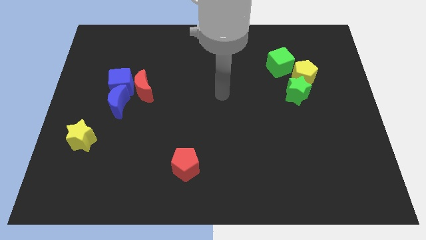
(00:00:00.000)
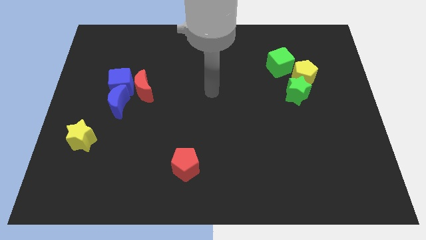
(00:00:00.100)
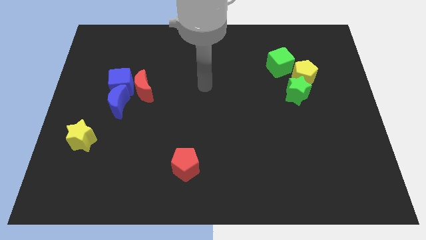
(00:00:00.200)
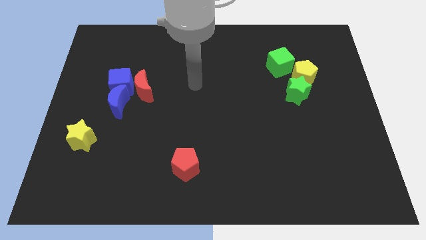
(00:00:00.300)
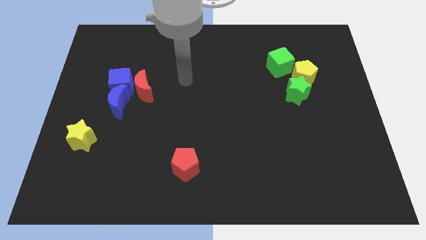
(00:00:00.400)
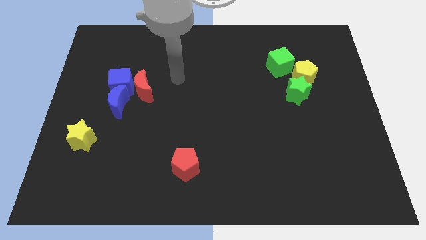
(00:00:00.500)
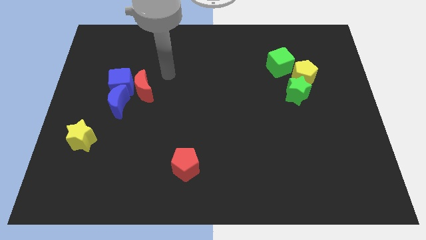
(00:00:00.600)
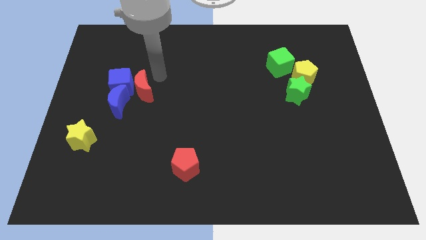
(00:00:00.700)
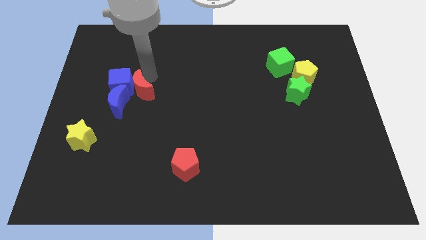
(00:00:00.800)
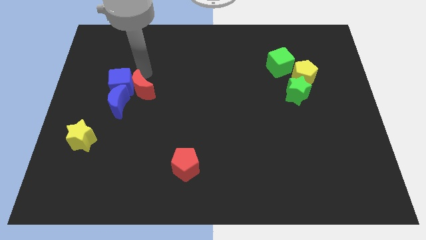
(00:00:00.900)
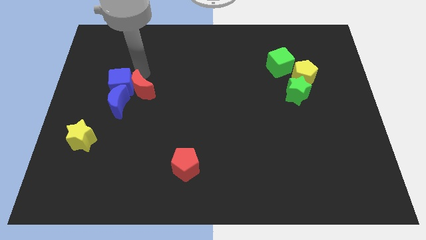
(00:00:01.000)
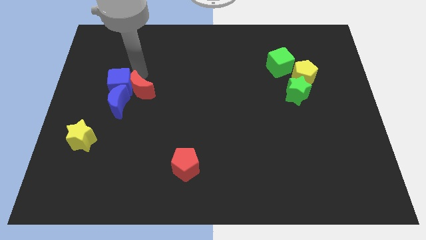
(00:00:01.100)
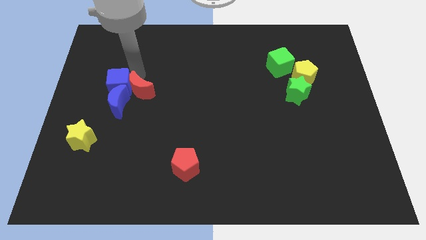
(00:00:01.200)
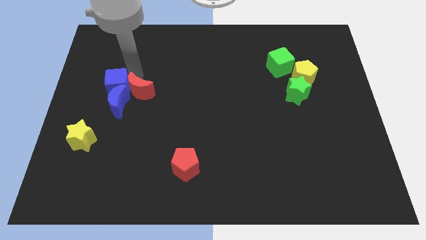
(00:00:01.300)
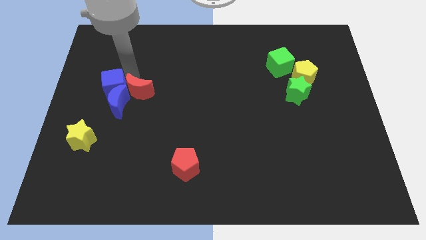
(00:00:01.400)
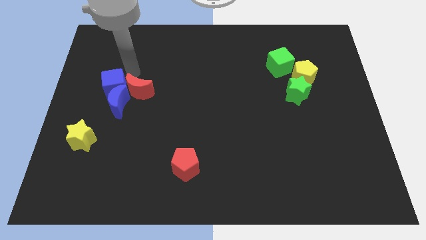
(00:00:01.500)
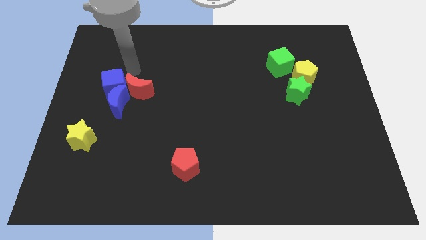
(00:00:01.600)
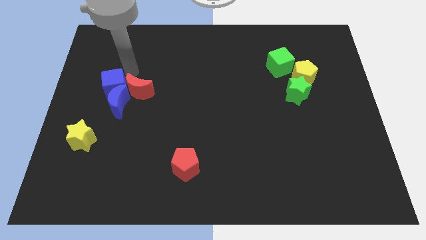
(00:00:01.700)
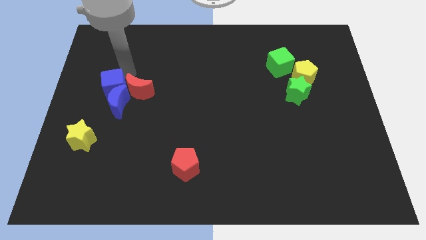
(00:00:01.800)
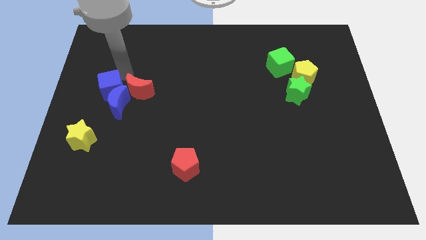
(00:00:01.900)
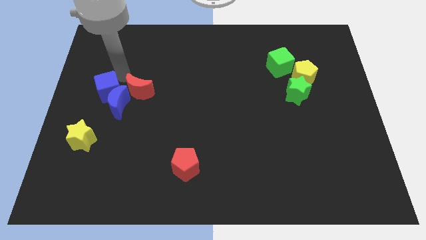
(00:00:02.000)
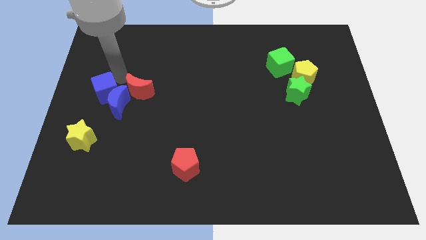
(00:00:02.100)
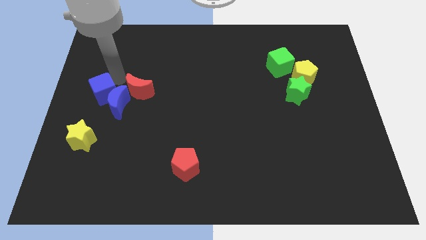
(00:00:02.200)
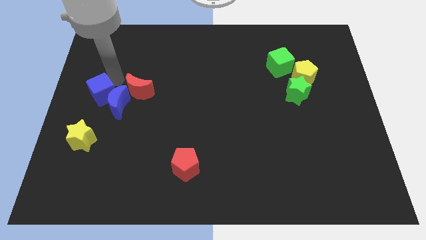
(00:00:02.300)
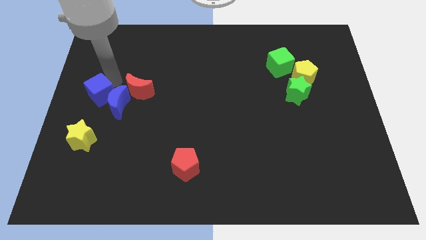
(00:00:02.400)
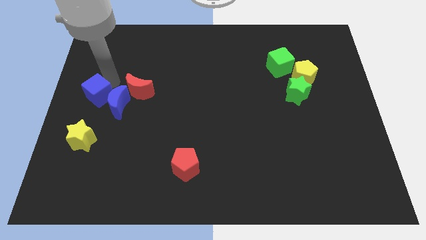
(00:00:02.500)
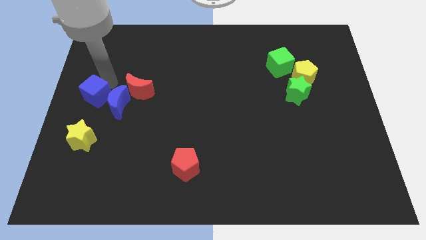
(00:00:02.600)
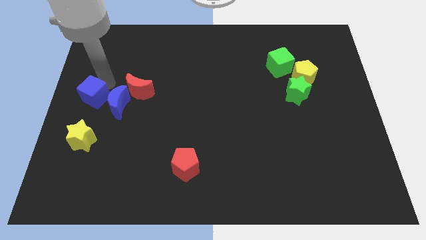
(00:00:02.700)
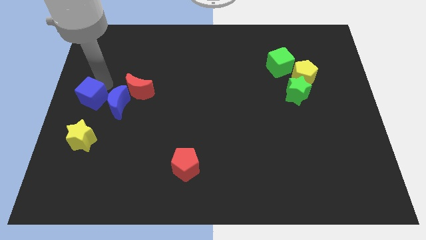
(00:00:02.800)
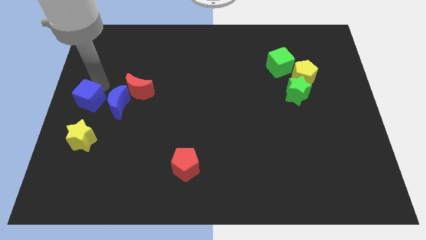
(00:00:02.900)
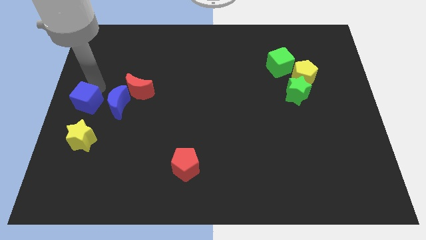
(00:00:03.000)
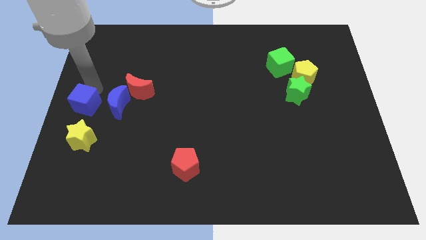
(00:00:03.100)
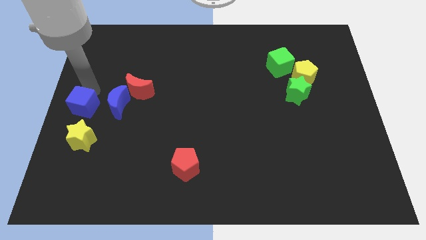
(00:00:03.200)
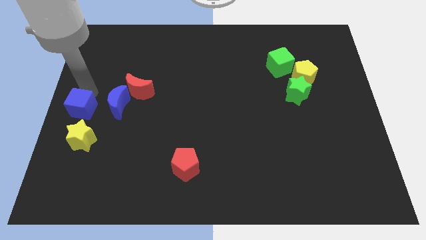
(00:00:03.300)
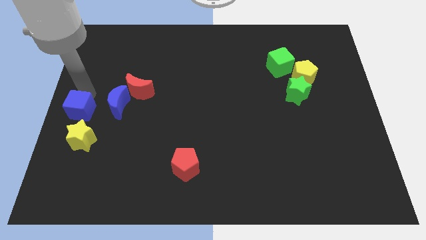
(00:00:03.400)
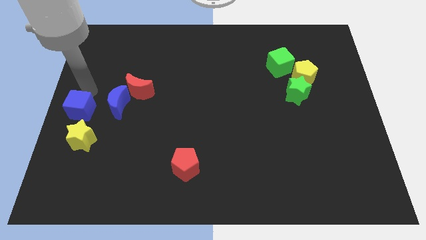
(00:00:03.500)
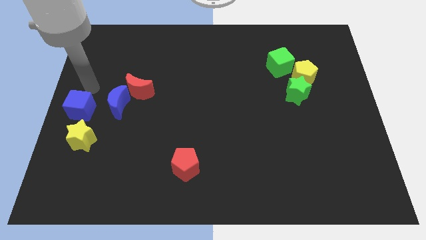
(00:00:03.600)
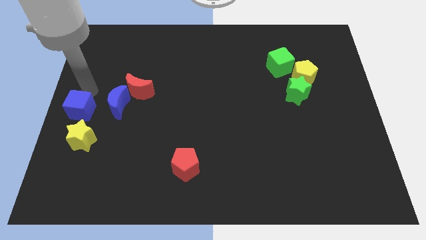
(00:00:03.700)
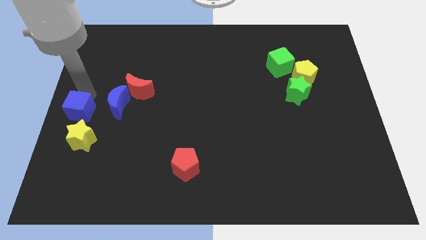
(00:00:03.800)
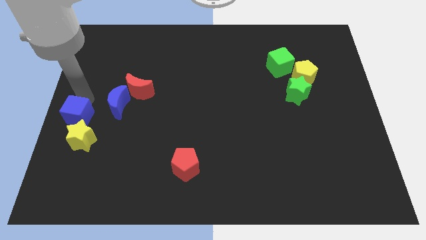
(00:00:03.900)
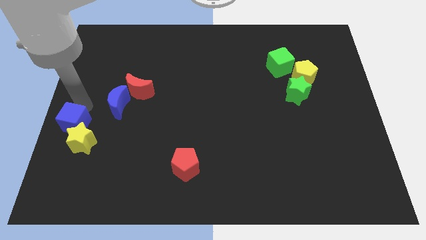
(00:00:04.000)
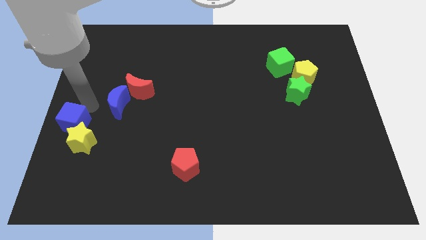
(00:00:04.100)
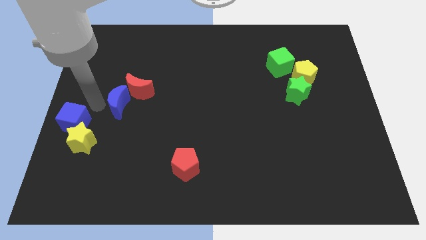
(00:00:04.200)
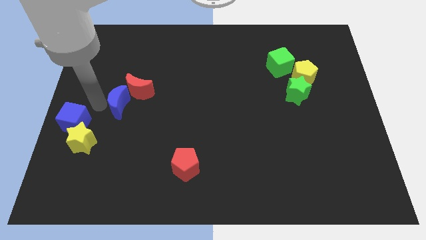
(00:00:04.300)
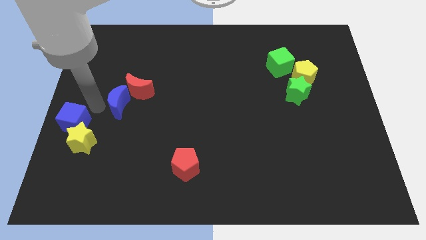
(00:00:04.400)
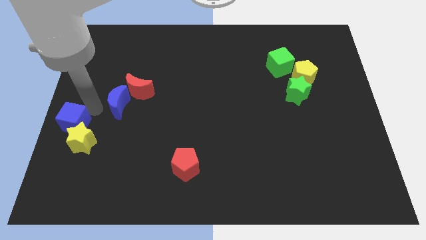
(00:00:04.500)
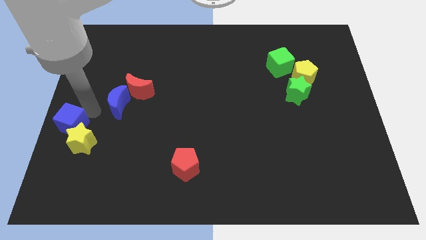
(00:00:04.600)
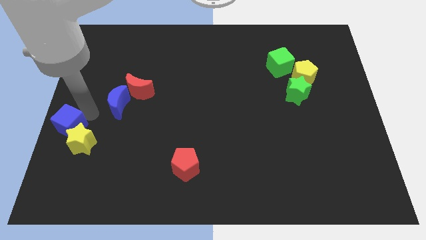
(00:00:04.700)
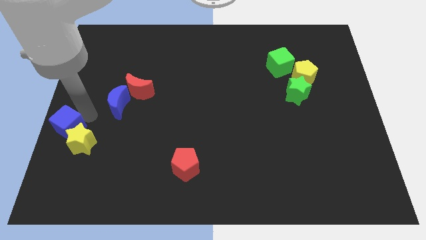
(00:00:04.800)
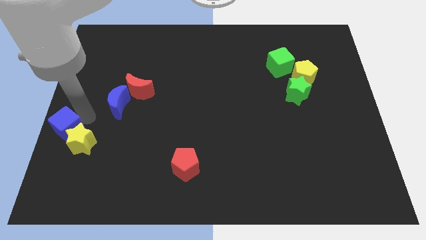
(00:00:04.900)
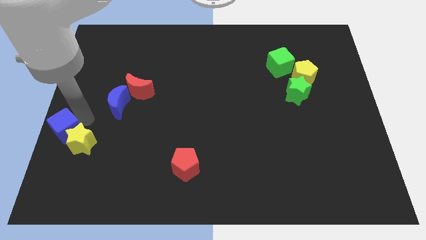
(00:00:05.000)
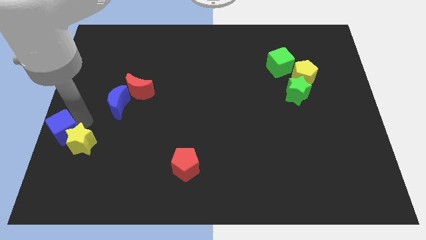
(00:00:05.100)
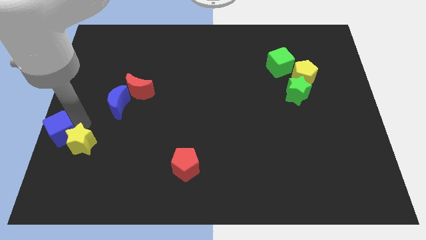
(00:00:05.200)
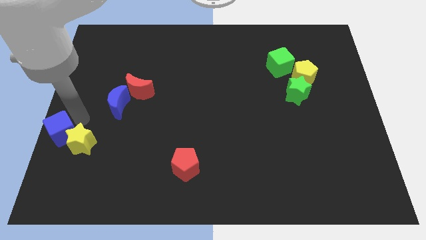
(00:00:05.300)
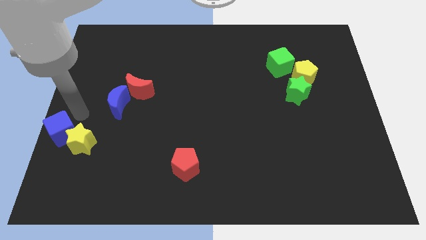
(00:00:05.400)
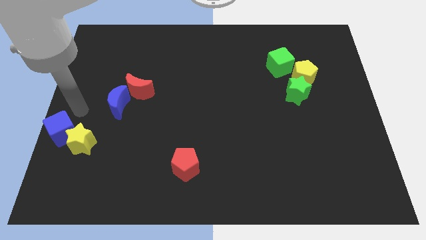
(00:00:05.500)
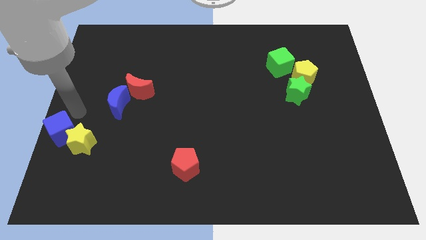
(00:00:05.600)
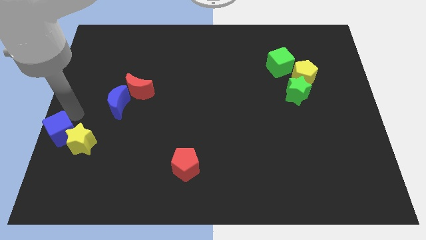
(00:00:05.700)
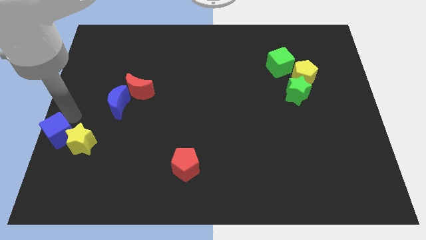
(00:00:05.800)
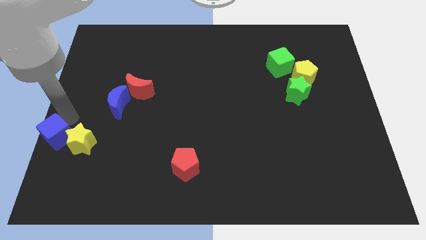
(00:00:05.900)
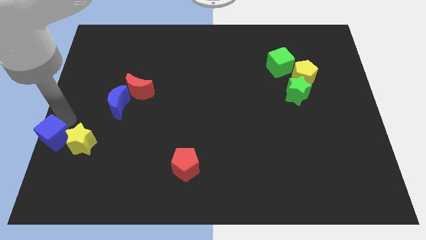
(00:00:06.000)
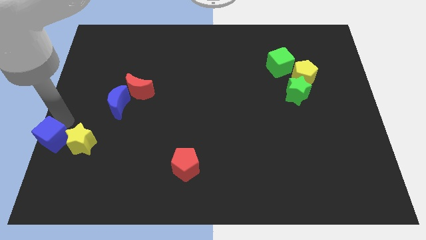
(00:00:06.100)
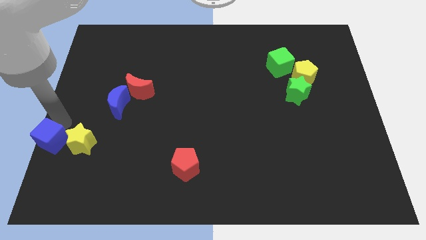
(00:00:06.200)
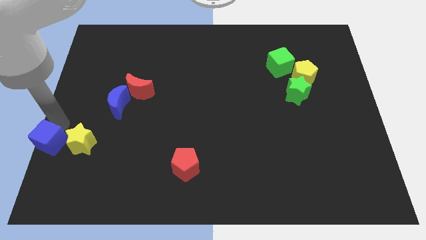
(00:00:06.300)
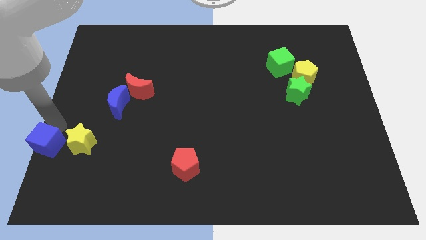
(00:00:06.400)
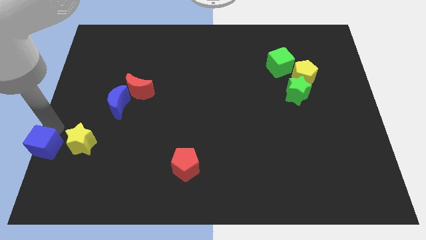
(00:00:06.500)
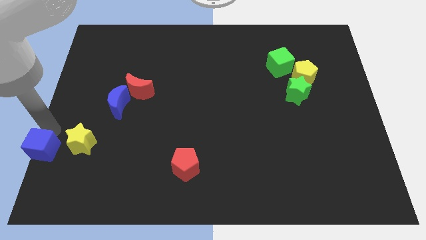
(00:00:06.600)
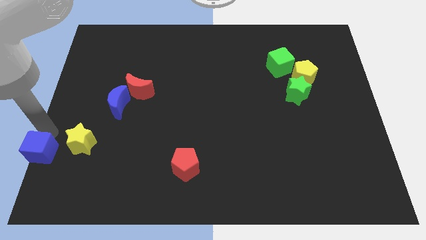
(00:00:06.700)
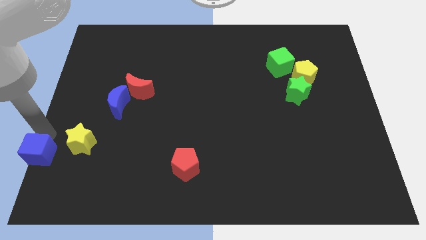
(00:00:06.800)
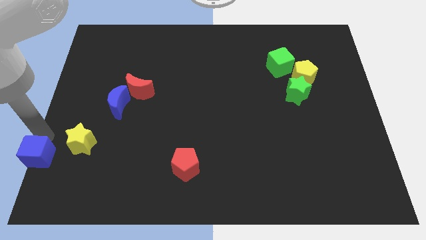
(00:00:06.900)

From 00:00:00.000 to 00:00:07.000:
push the blue cube to the bottom left

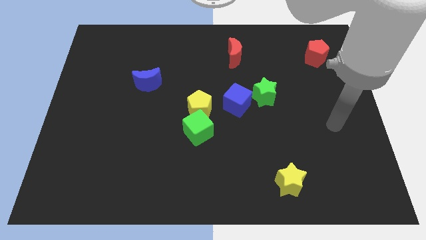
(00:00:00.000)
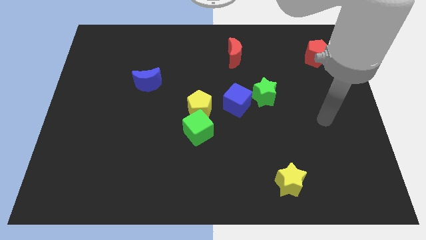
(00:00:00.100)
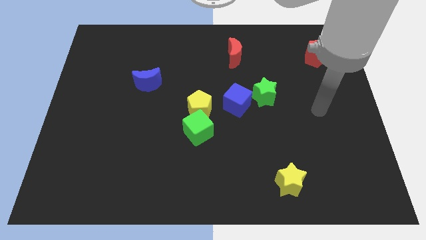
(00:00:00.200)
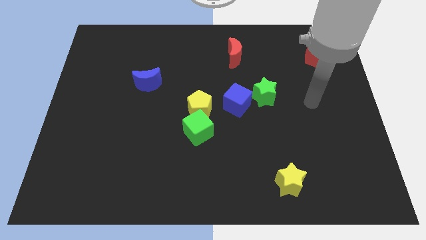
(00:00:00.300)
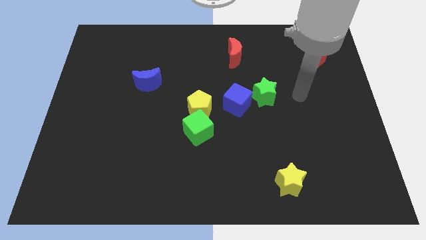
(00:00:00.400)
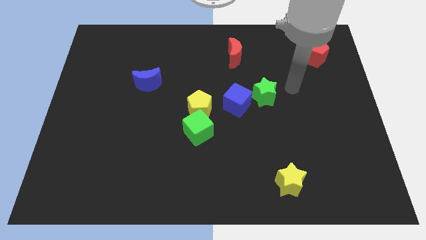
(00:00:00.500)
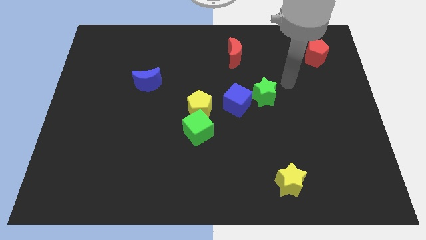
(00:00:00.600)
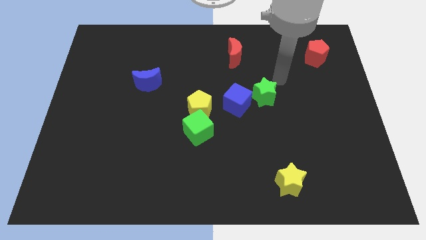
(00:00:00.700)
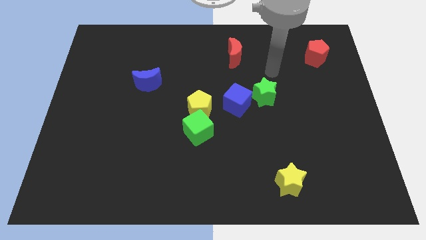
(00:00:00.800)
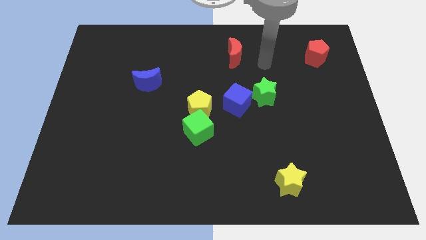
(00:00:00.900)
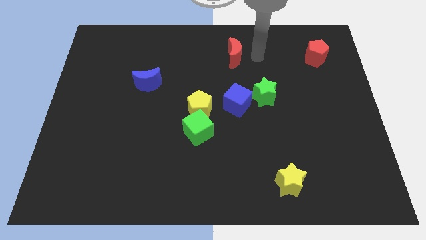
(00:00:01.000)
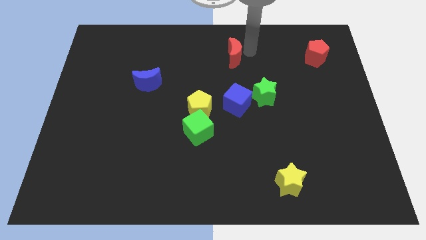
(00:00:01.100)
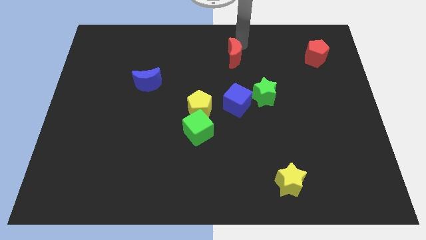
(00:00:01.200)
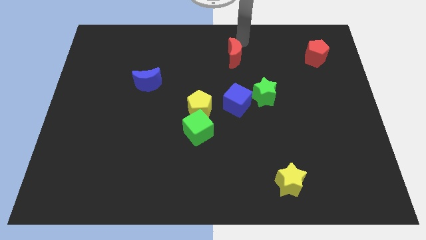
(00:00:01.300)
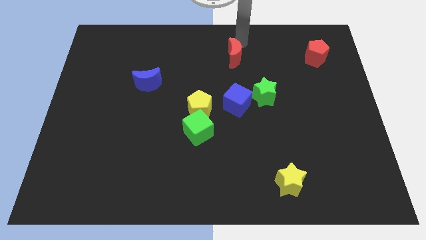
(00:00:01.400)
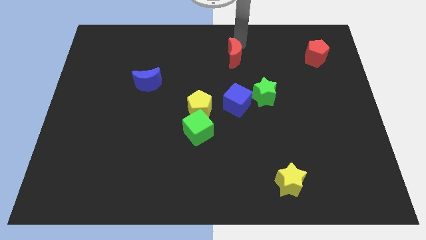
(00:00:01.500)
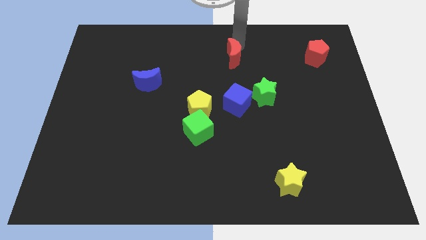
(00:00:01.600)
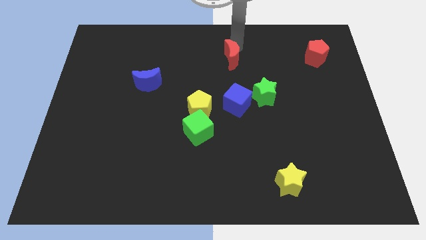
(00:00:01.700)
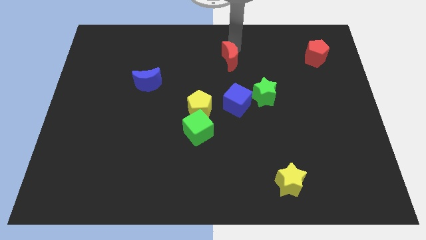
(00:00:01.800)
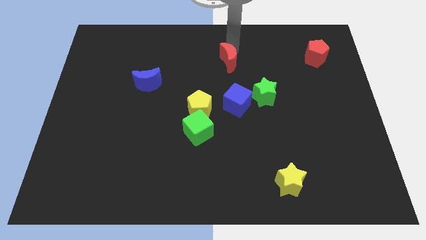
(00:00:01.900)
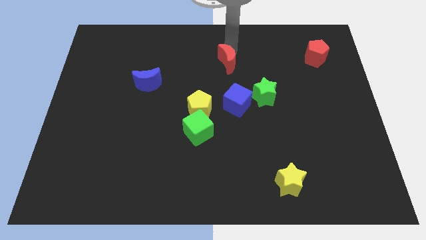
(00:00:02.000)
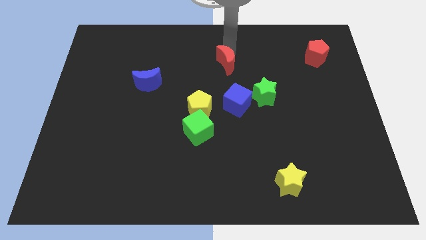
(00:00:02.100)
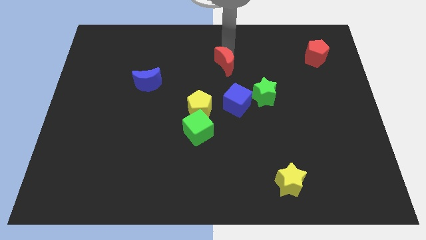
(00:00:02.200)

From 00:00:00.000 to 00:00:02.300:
push the red moon to the center of the board
